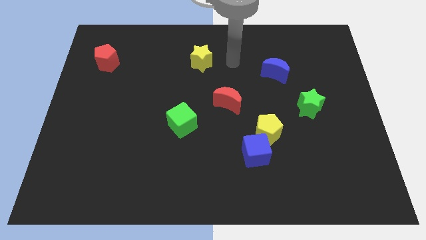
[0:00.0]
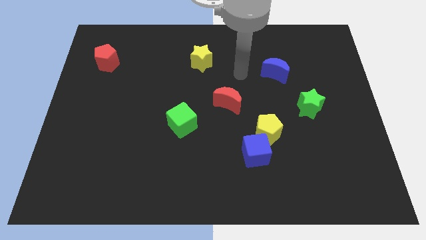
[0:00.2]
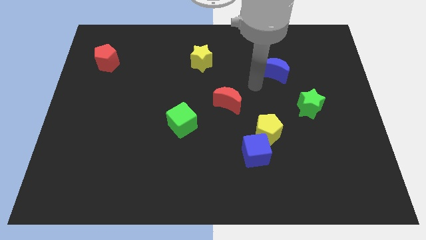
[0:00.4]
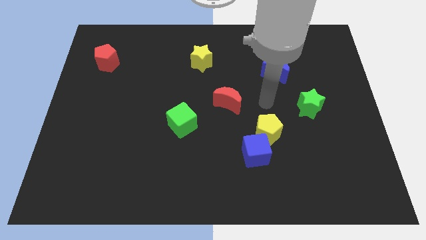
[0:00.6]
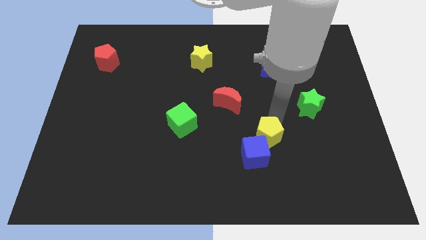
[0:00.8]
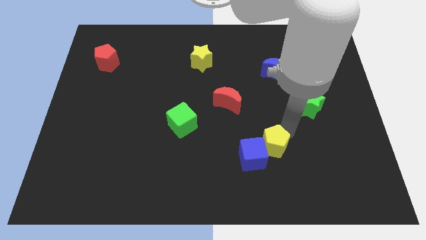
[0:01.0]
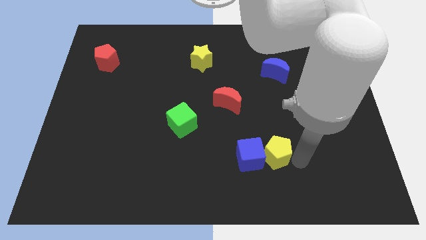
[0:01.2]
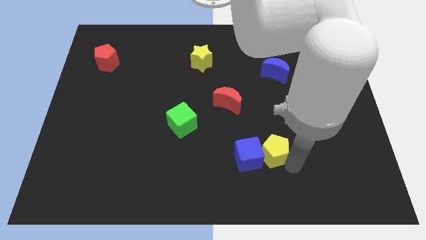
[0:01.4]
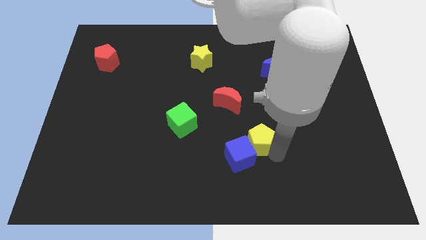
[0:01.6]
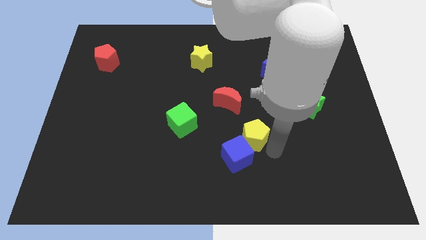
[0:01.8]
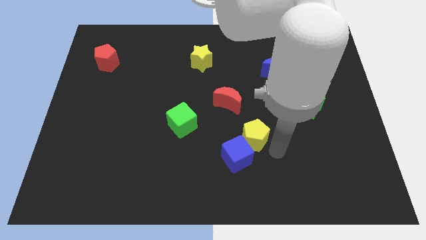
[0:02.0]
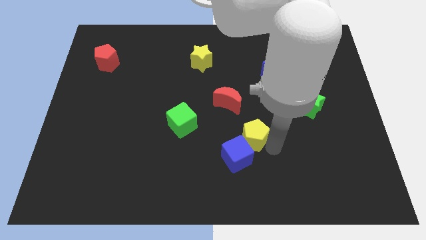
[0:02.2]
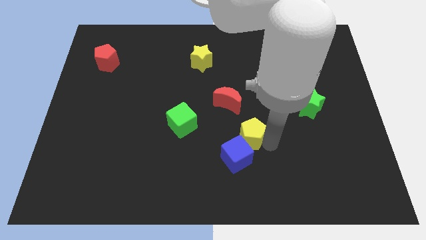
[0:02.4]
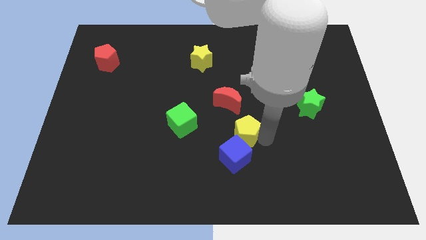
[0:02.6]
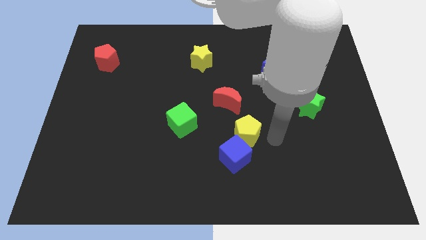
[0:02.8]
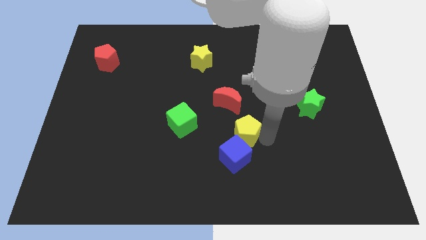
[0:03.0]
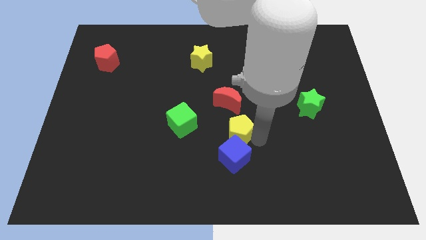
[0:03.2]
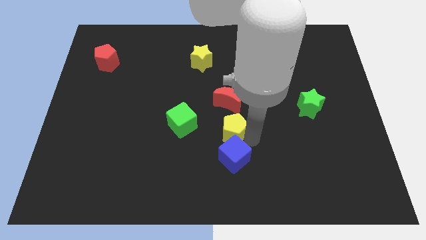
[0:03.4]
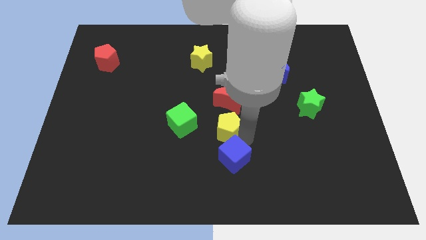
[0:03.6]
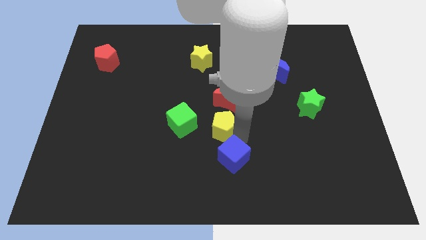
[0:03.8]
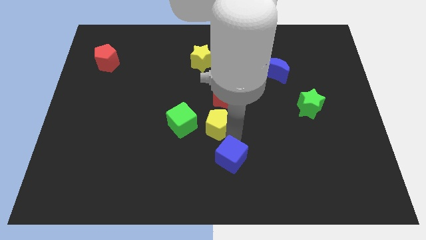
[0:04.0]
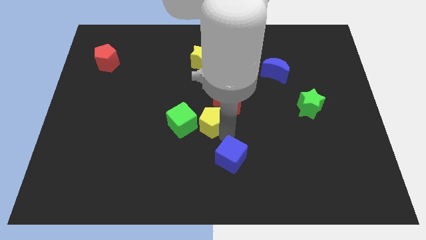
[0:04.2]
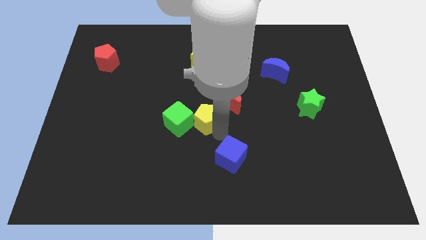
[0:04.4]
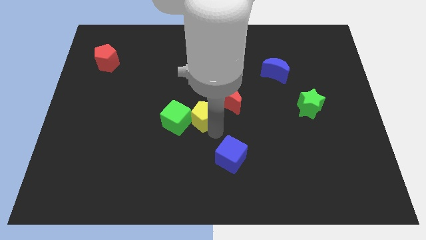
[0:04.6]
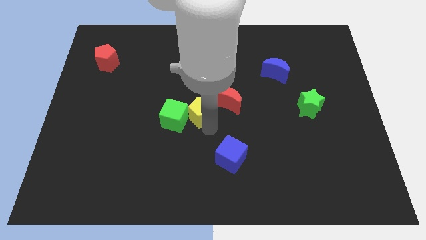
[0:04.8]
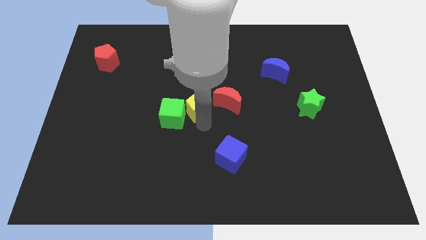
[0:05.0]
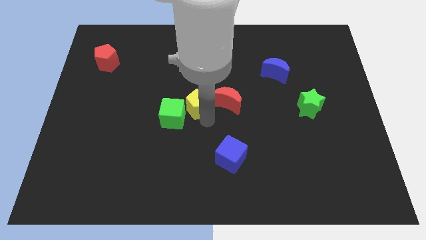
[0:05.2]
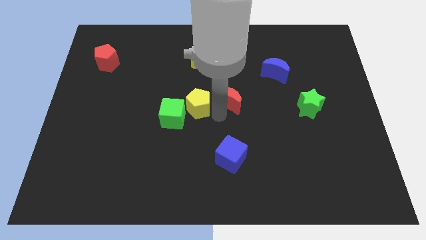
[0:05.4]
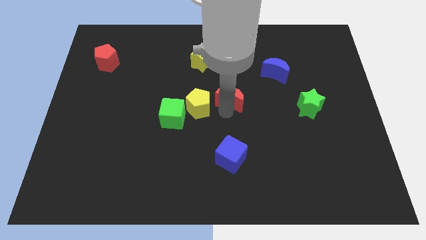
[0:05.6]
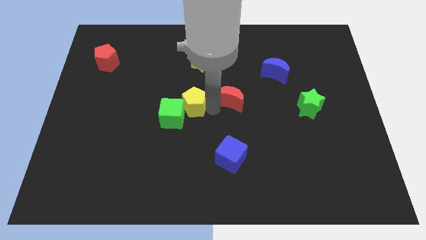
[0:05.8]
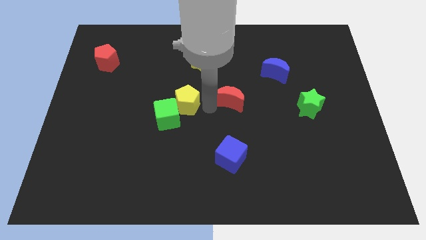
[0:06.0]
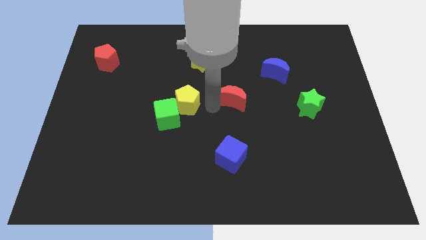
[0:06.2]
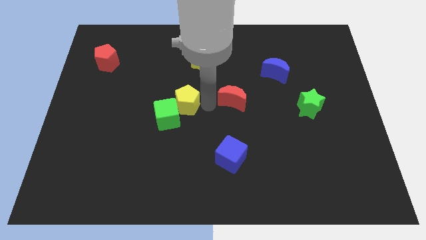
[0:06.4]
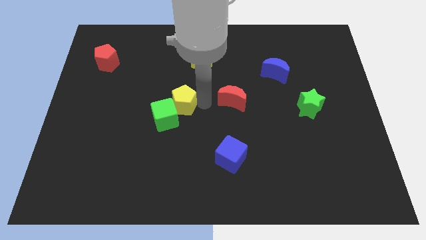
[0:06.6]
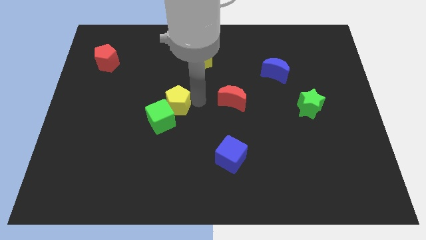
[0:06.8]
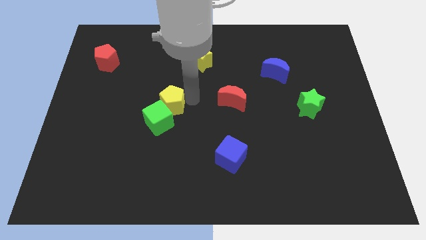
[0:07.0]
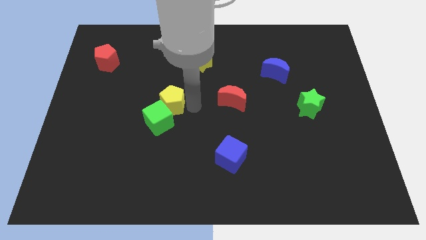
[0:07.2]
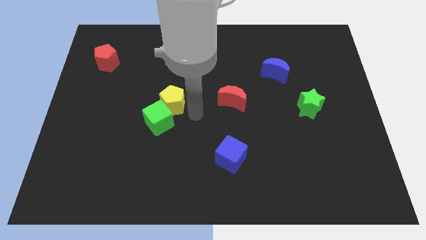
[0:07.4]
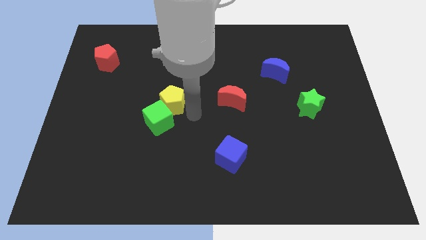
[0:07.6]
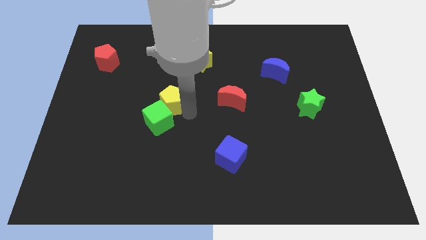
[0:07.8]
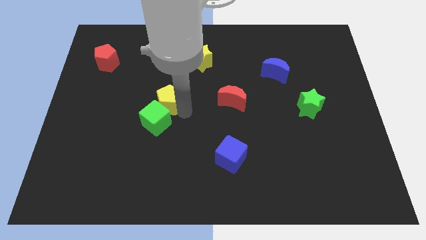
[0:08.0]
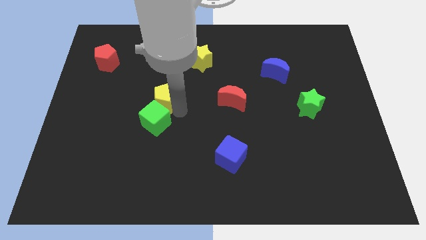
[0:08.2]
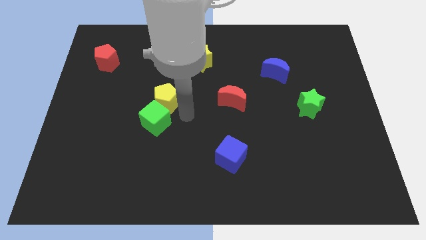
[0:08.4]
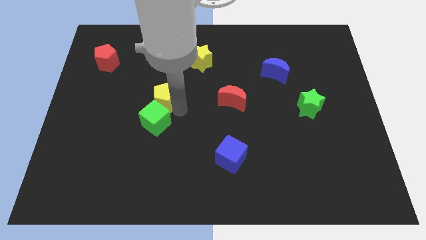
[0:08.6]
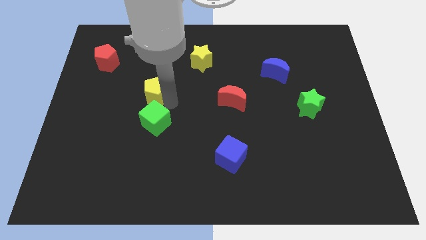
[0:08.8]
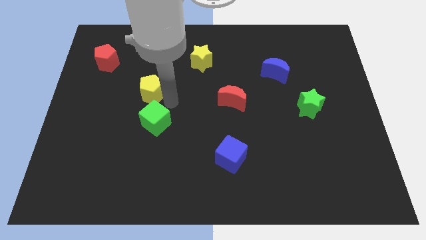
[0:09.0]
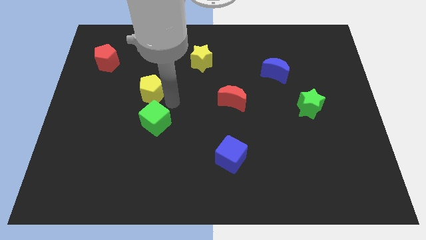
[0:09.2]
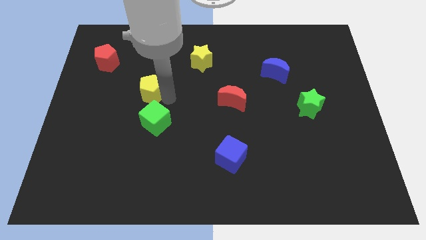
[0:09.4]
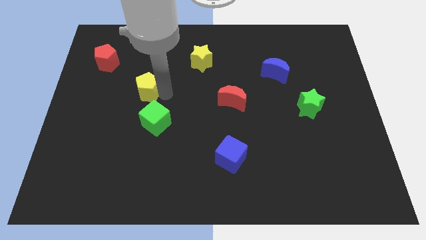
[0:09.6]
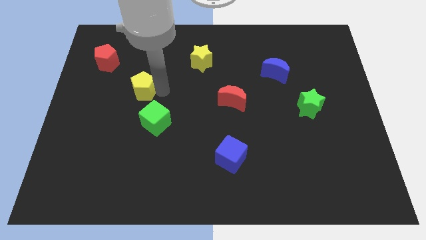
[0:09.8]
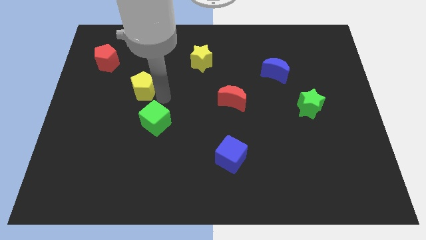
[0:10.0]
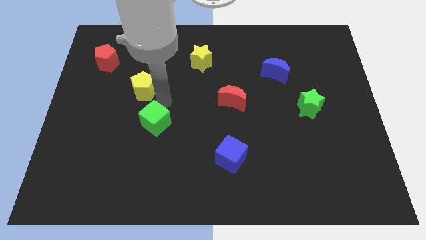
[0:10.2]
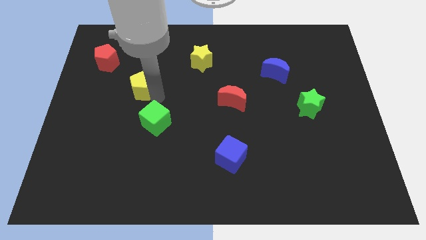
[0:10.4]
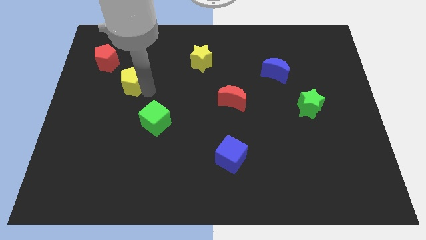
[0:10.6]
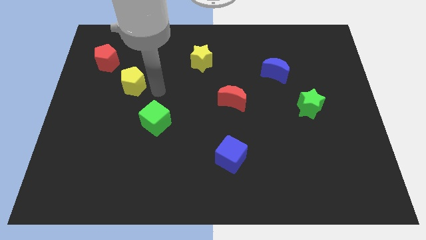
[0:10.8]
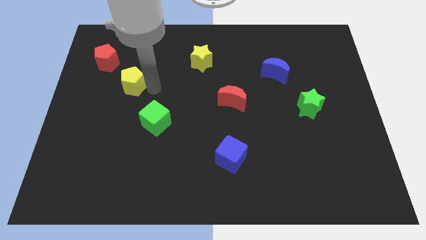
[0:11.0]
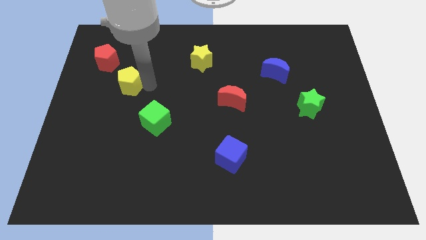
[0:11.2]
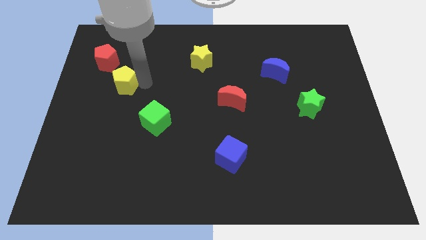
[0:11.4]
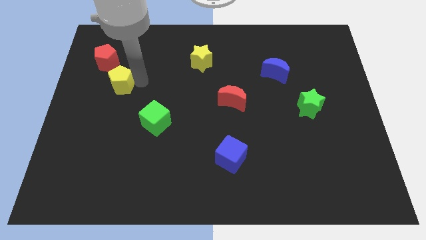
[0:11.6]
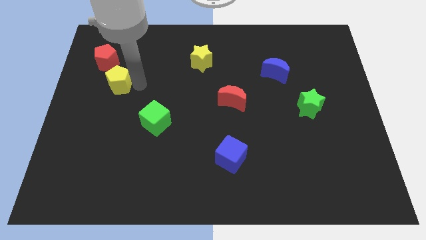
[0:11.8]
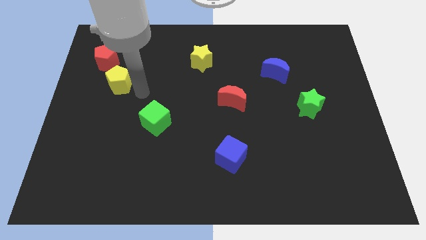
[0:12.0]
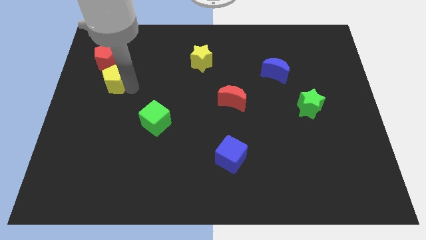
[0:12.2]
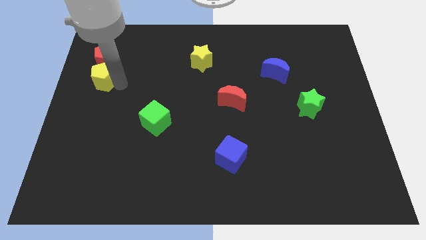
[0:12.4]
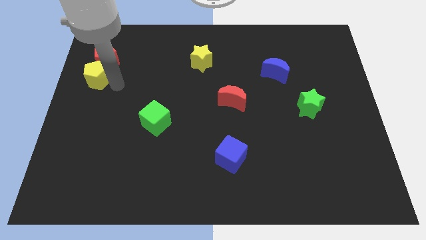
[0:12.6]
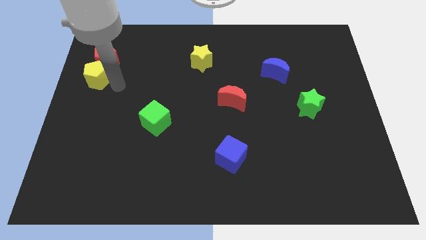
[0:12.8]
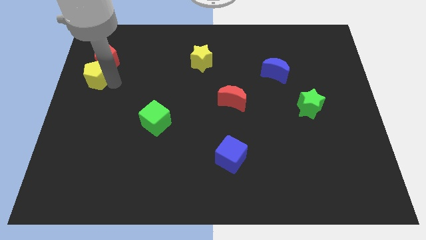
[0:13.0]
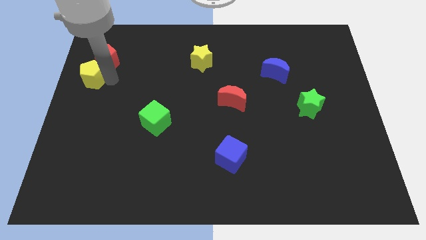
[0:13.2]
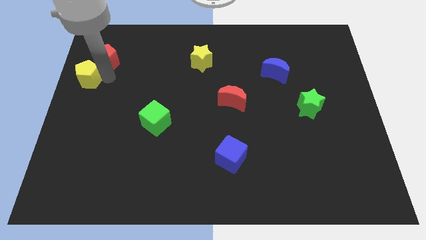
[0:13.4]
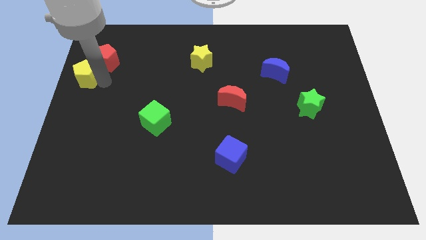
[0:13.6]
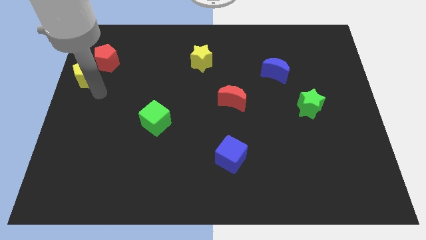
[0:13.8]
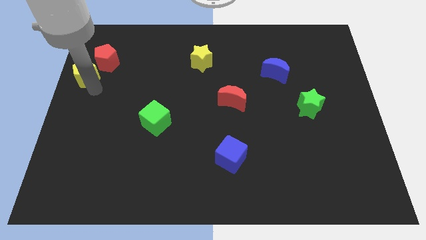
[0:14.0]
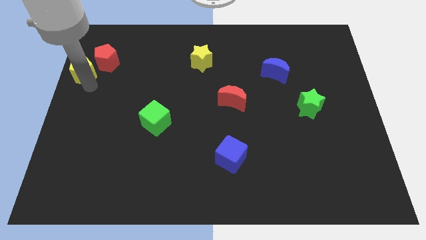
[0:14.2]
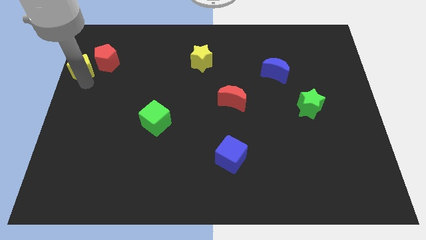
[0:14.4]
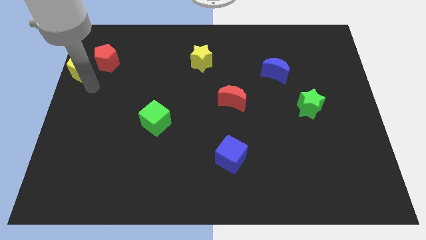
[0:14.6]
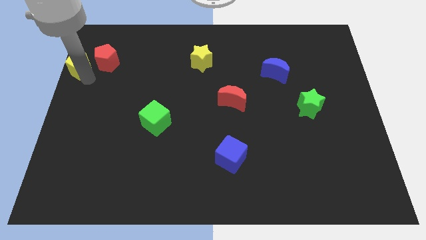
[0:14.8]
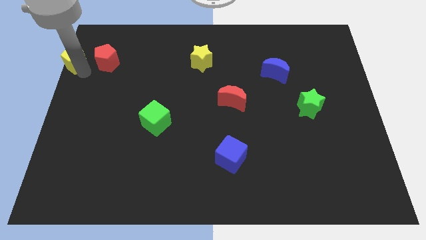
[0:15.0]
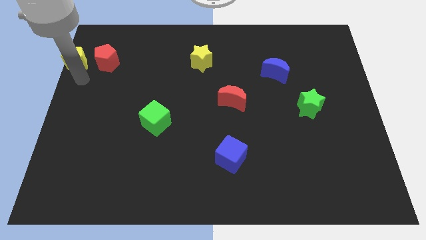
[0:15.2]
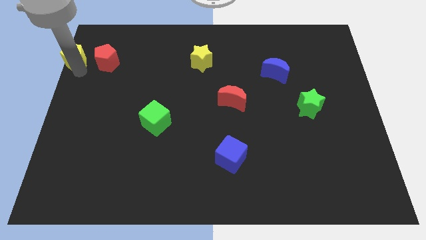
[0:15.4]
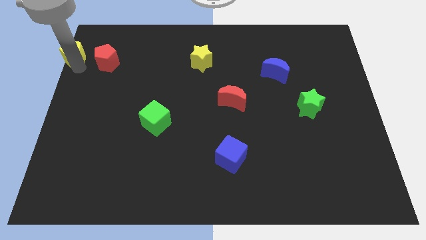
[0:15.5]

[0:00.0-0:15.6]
push the yellow pentagon to the top left of the board
